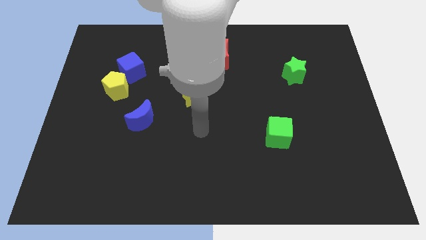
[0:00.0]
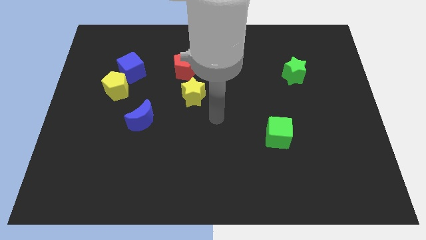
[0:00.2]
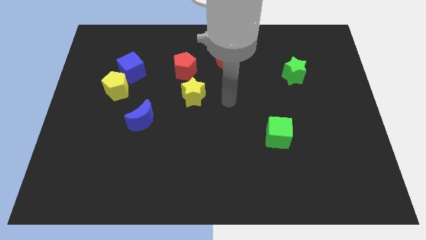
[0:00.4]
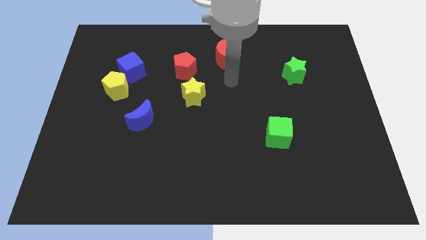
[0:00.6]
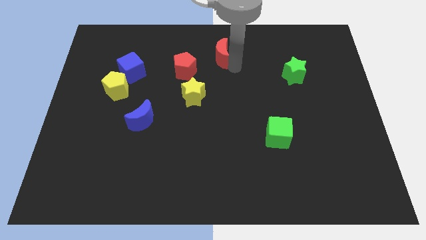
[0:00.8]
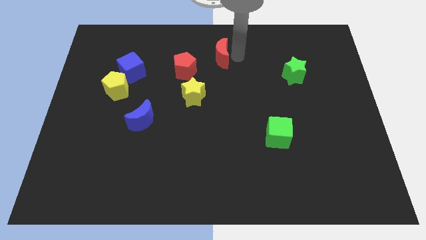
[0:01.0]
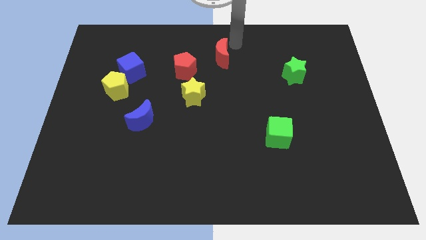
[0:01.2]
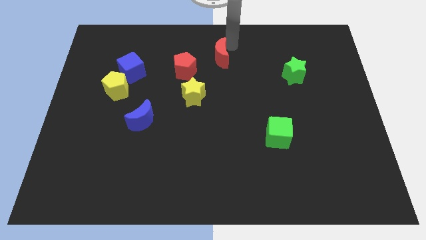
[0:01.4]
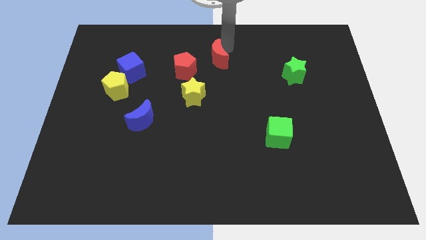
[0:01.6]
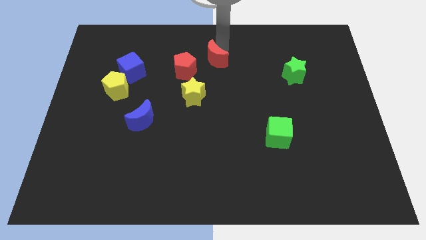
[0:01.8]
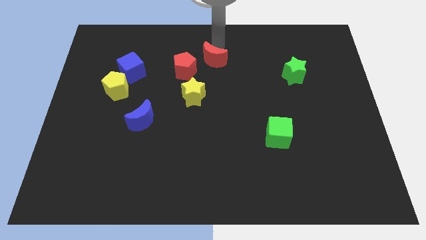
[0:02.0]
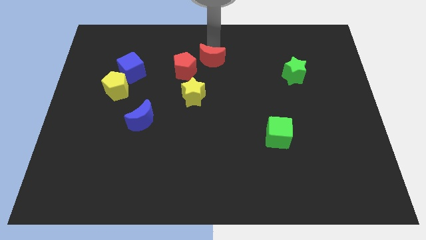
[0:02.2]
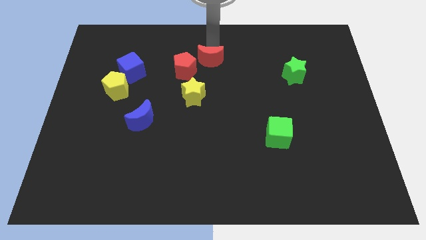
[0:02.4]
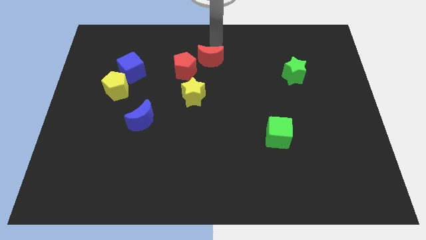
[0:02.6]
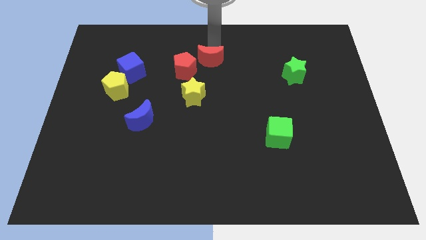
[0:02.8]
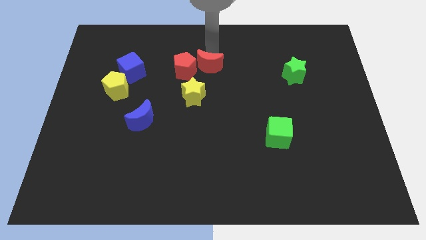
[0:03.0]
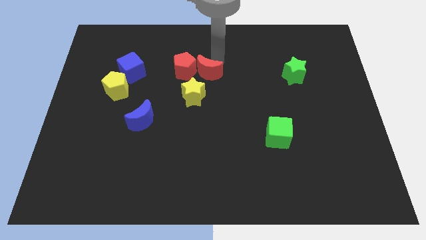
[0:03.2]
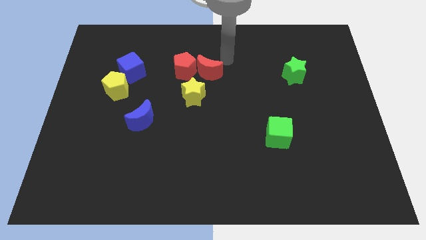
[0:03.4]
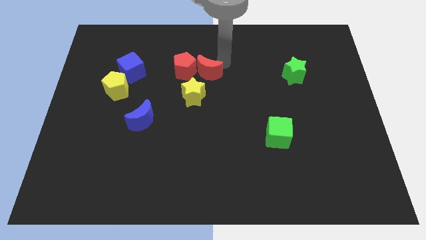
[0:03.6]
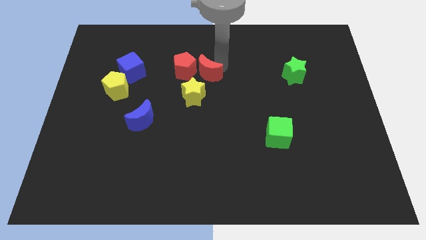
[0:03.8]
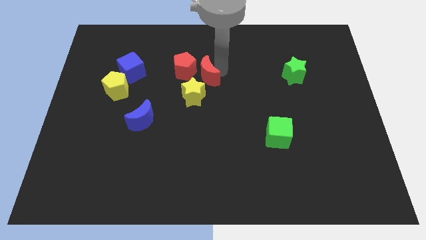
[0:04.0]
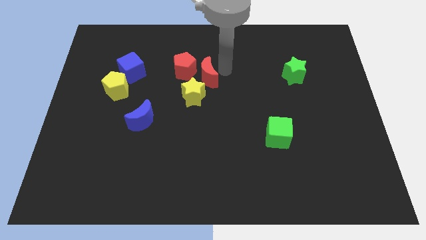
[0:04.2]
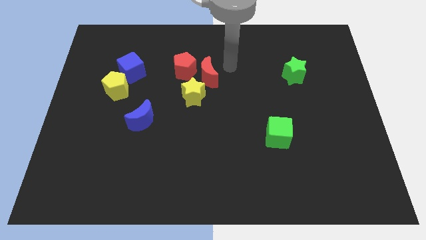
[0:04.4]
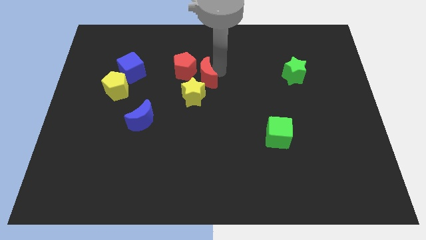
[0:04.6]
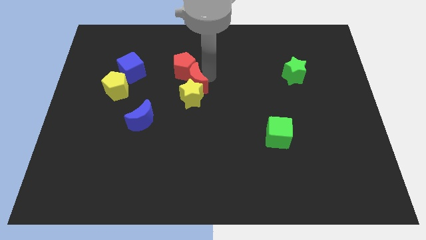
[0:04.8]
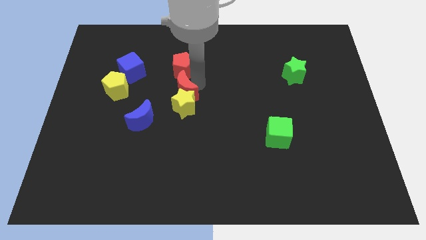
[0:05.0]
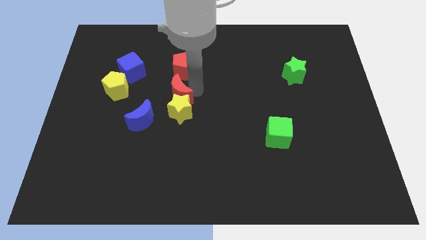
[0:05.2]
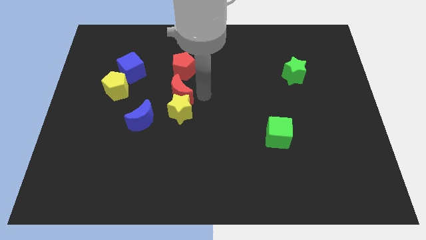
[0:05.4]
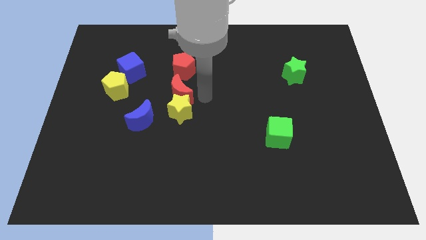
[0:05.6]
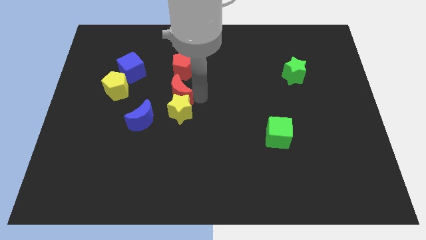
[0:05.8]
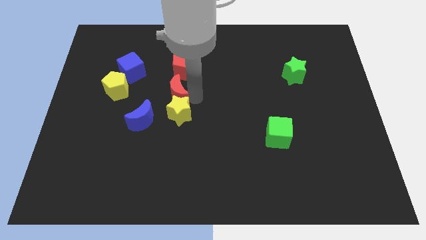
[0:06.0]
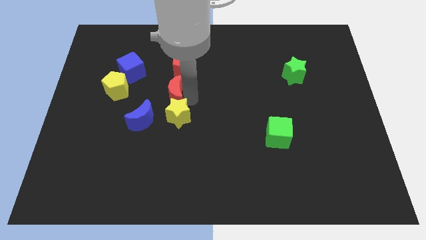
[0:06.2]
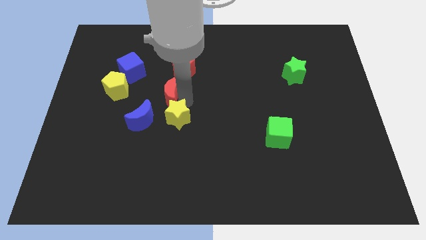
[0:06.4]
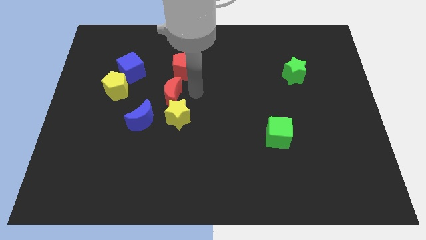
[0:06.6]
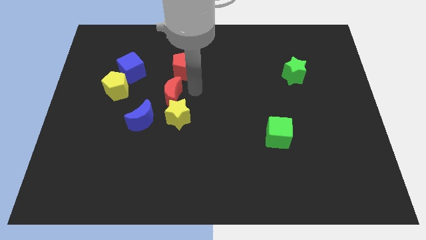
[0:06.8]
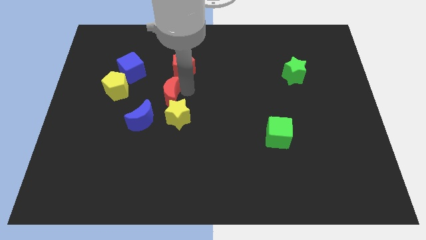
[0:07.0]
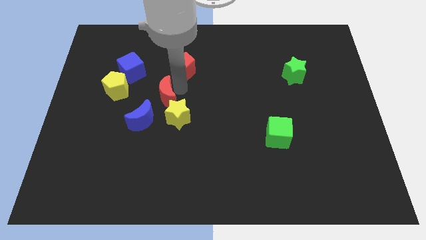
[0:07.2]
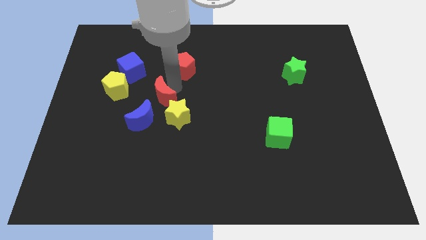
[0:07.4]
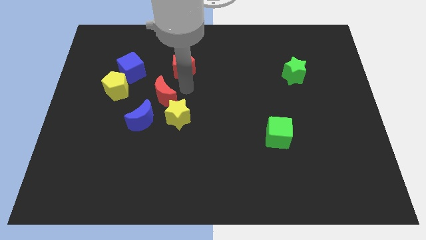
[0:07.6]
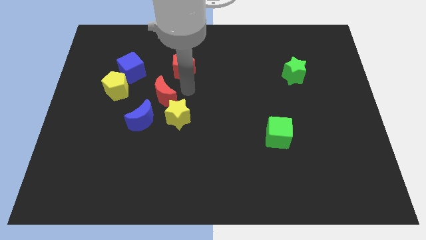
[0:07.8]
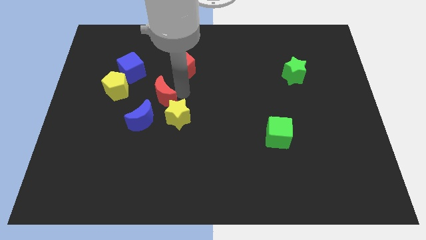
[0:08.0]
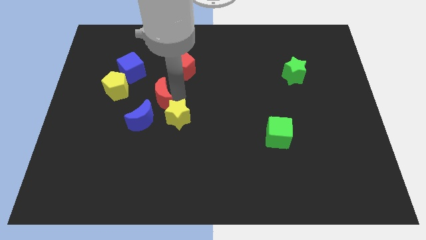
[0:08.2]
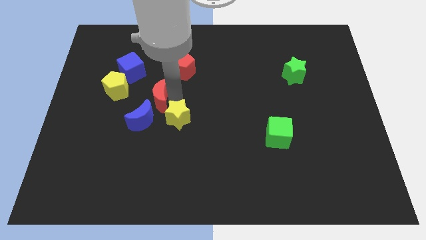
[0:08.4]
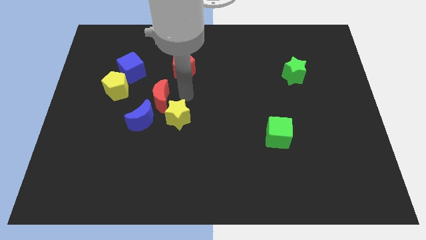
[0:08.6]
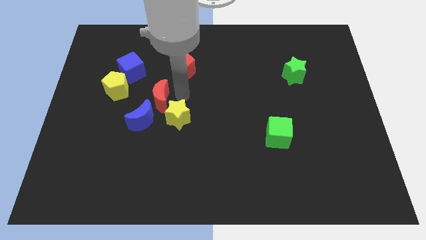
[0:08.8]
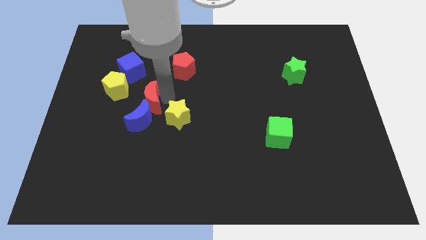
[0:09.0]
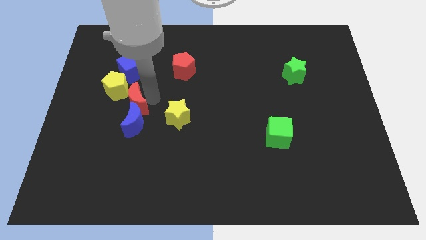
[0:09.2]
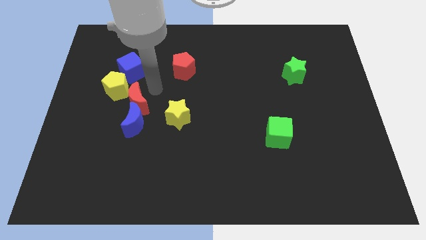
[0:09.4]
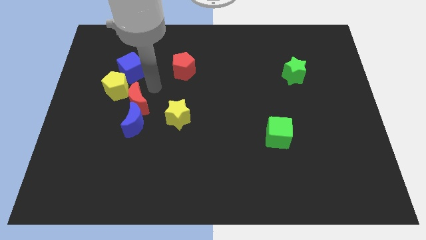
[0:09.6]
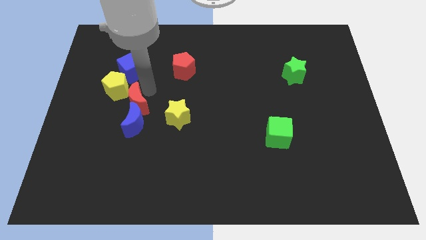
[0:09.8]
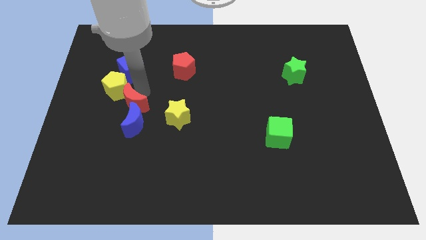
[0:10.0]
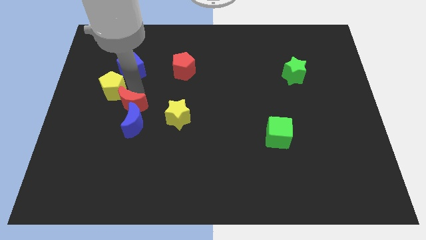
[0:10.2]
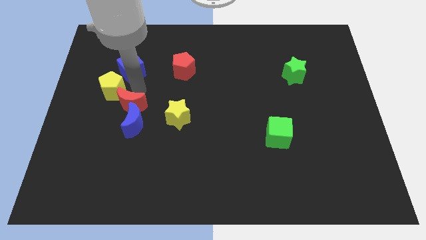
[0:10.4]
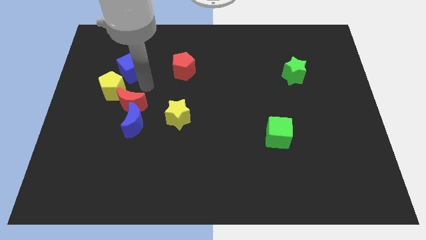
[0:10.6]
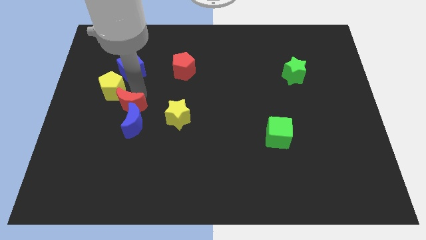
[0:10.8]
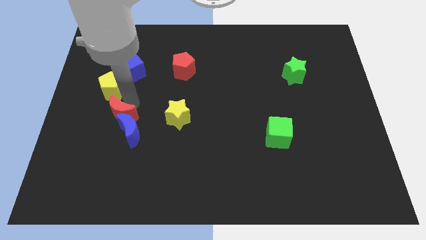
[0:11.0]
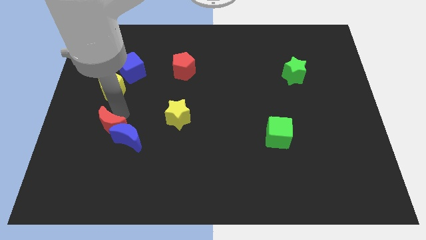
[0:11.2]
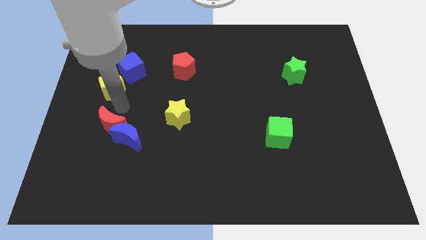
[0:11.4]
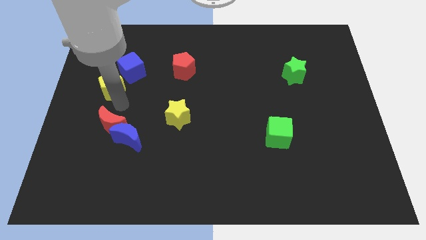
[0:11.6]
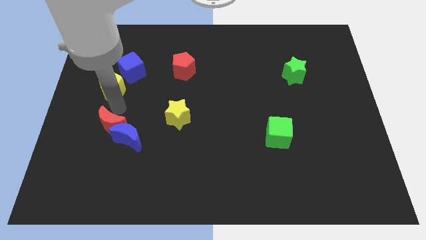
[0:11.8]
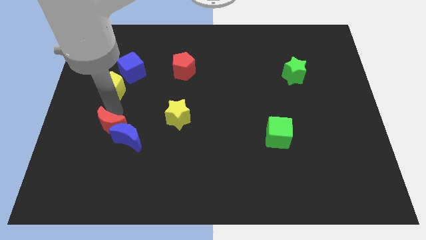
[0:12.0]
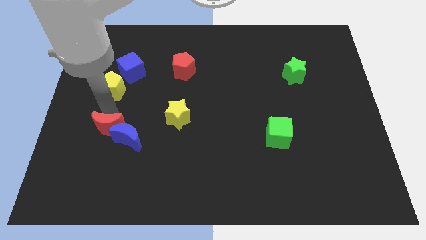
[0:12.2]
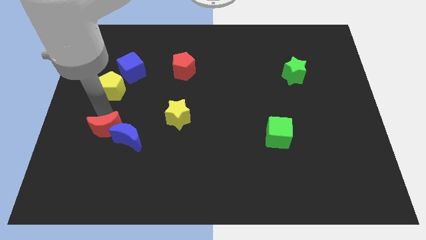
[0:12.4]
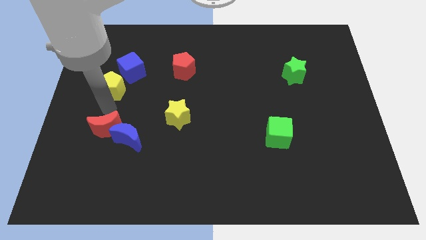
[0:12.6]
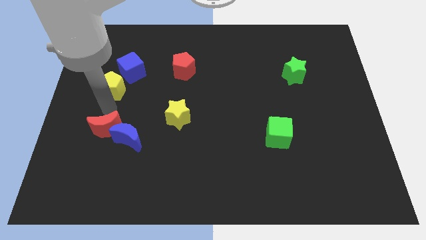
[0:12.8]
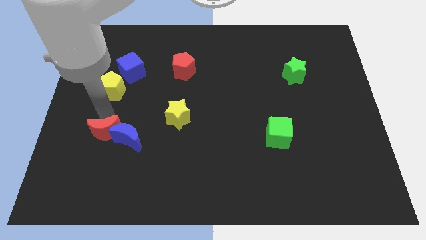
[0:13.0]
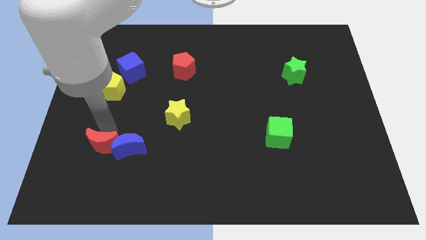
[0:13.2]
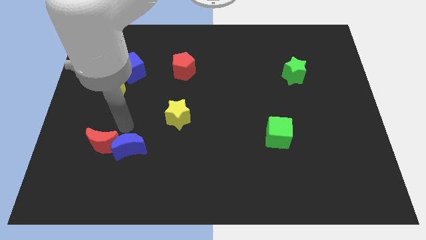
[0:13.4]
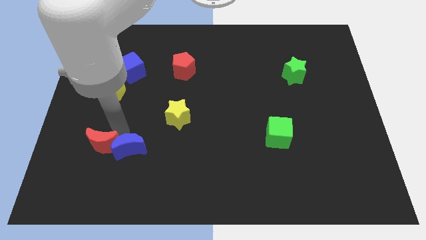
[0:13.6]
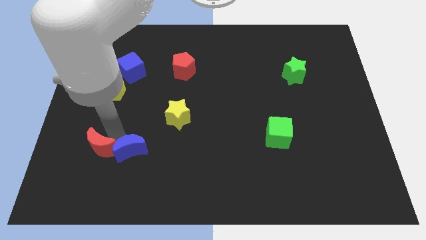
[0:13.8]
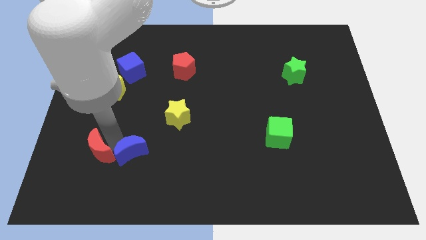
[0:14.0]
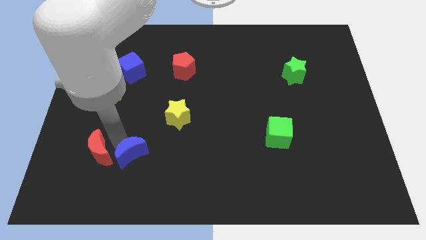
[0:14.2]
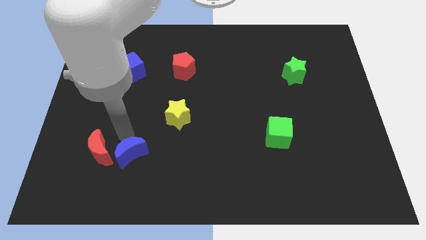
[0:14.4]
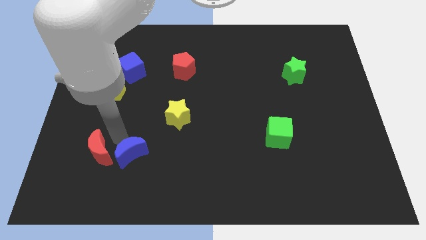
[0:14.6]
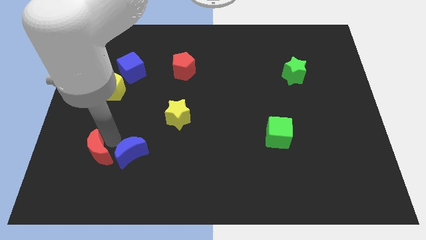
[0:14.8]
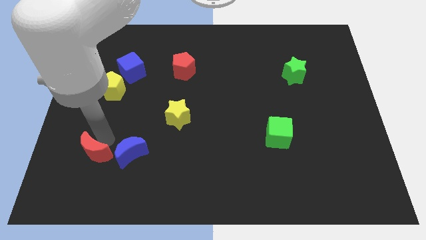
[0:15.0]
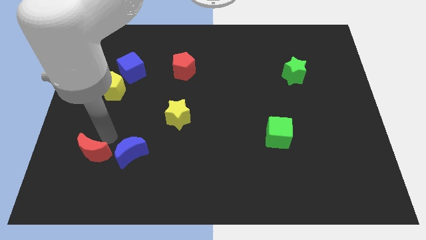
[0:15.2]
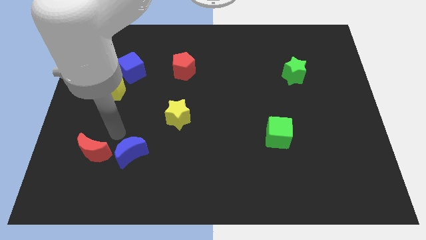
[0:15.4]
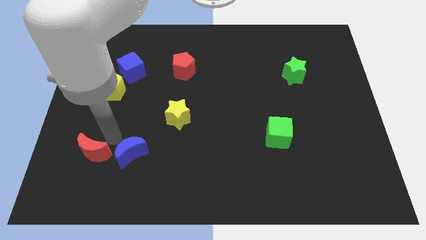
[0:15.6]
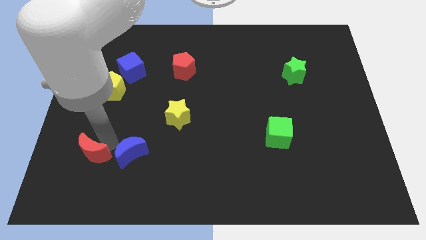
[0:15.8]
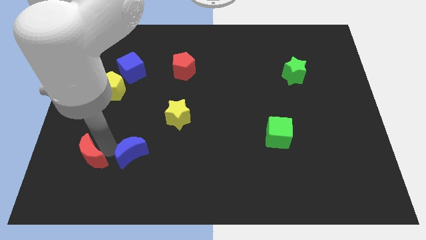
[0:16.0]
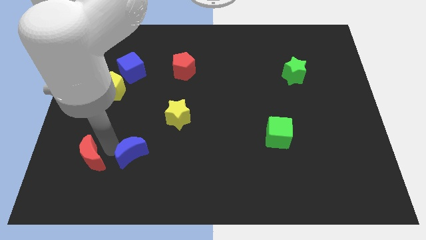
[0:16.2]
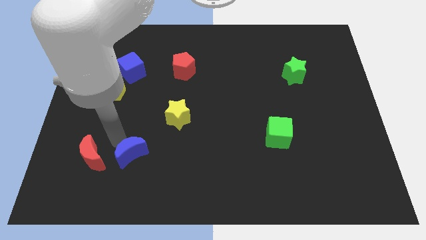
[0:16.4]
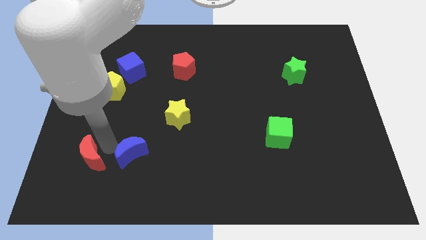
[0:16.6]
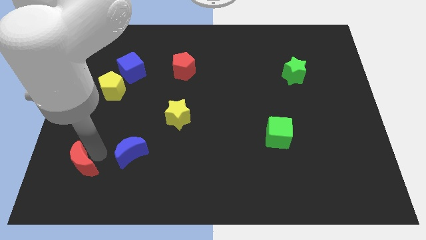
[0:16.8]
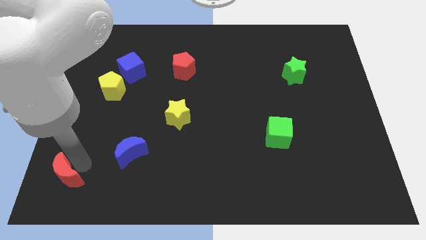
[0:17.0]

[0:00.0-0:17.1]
push the red moon to the lower left corner
